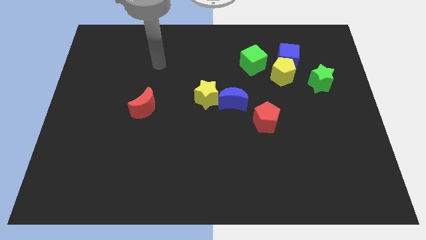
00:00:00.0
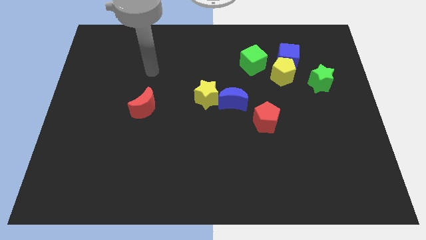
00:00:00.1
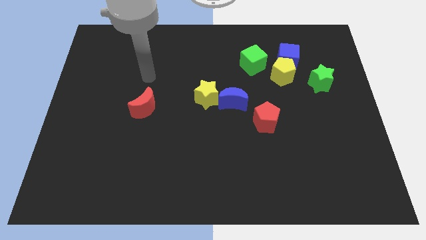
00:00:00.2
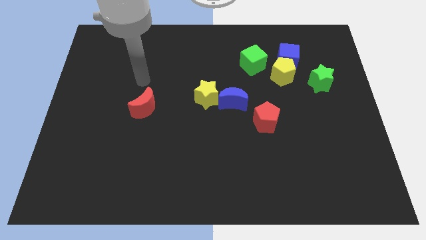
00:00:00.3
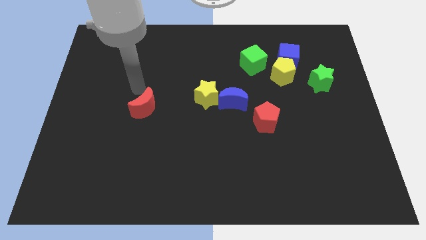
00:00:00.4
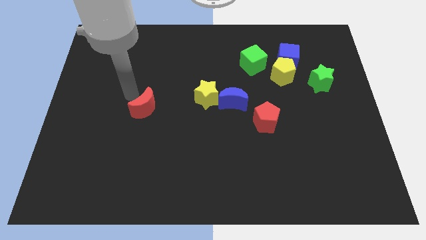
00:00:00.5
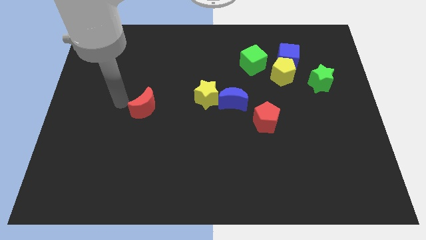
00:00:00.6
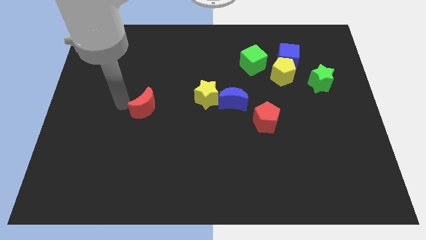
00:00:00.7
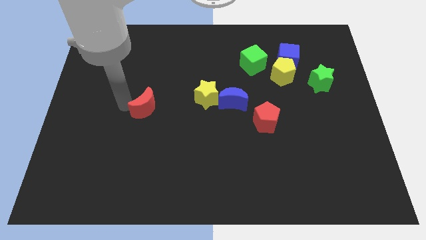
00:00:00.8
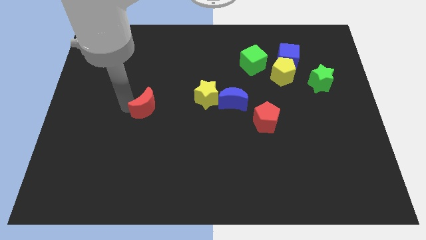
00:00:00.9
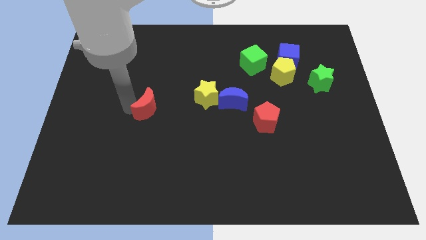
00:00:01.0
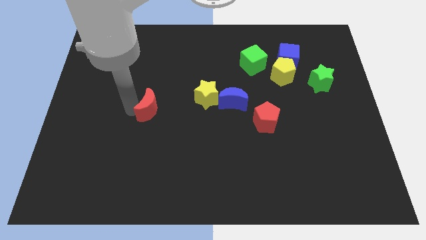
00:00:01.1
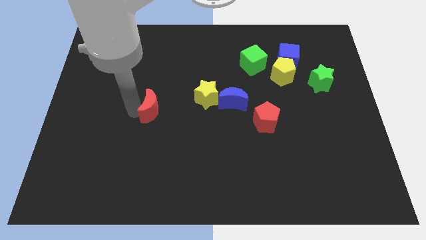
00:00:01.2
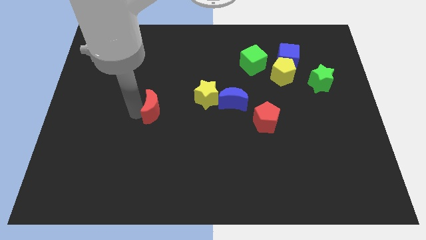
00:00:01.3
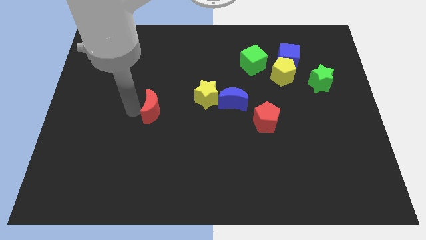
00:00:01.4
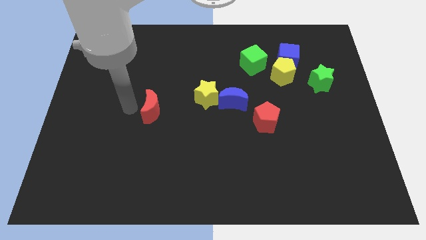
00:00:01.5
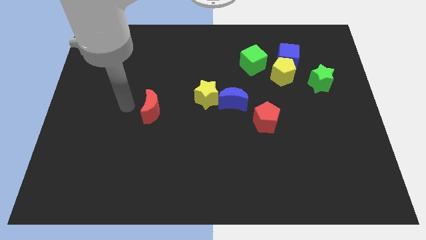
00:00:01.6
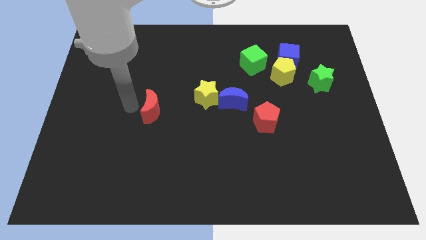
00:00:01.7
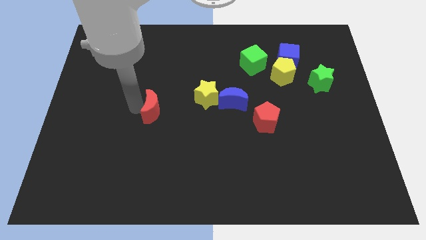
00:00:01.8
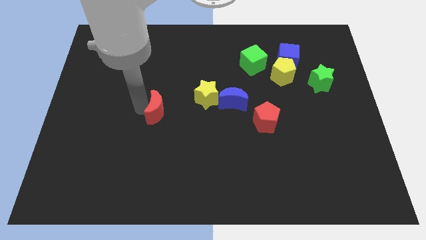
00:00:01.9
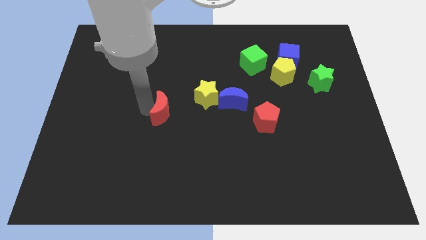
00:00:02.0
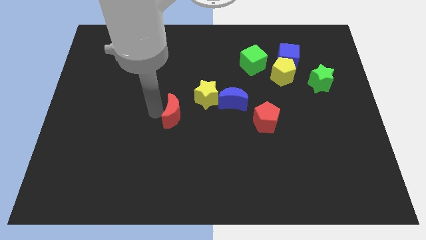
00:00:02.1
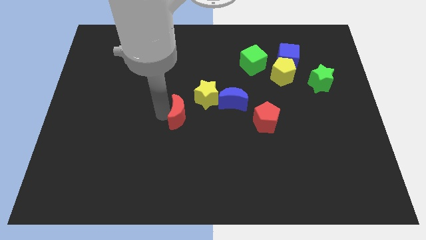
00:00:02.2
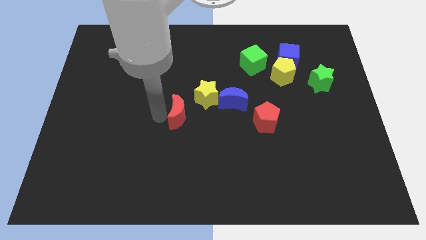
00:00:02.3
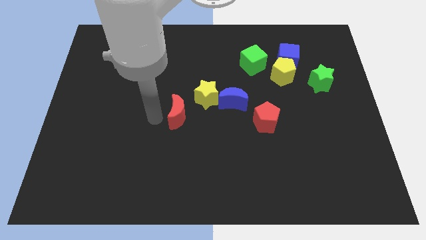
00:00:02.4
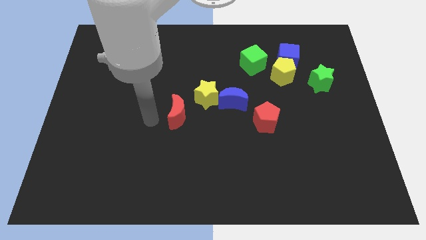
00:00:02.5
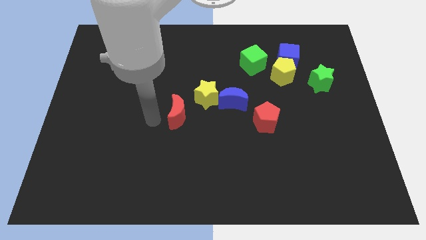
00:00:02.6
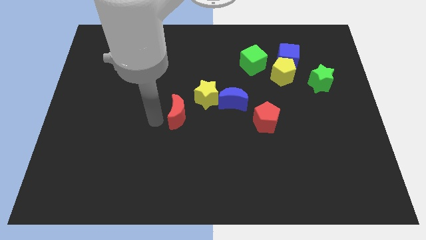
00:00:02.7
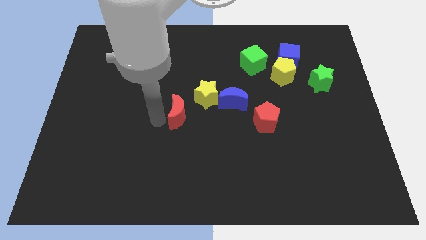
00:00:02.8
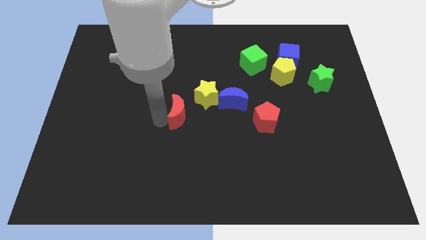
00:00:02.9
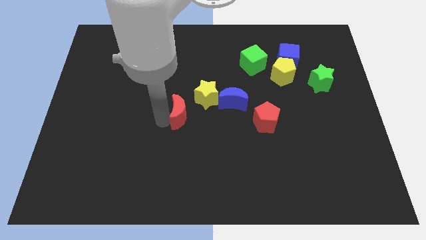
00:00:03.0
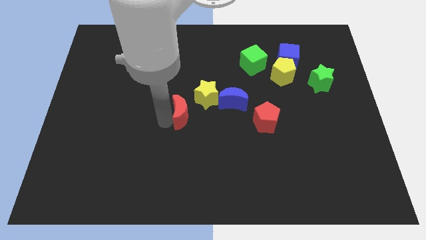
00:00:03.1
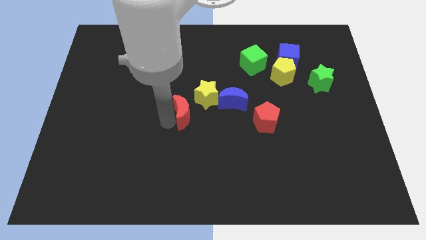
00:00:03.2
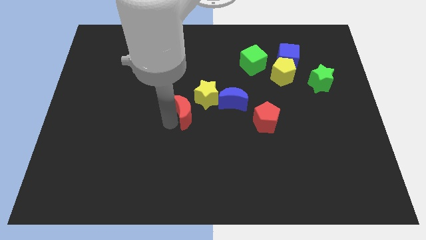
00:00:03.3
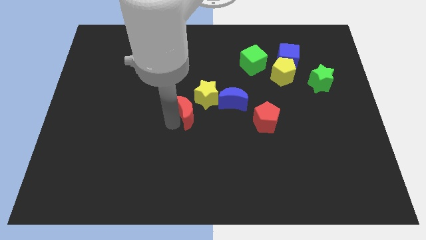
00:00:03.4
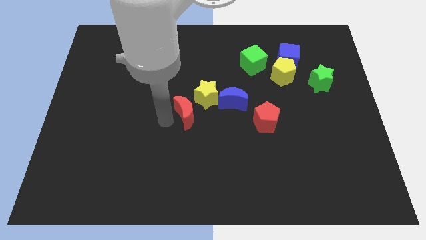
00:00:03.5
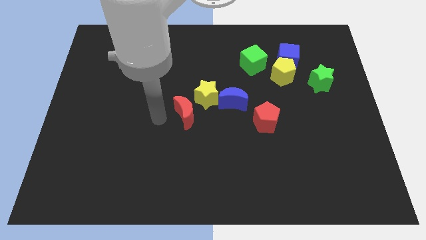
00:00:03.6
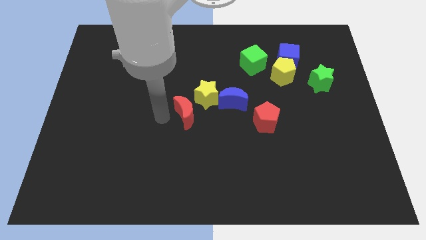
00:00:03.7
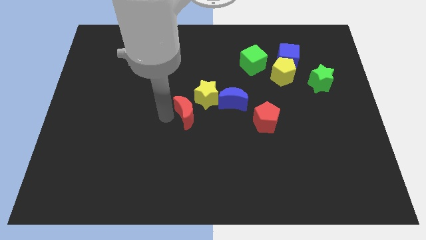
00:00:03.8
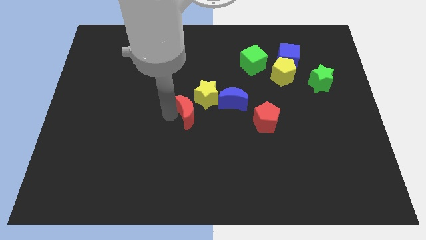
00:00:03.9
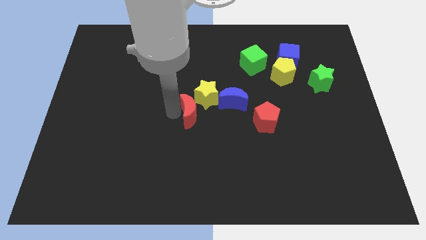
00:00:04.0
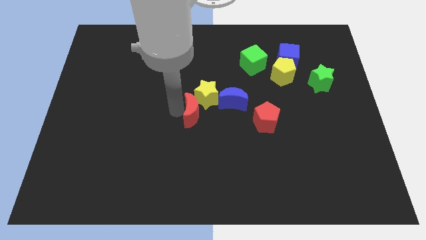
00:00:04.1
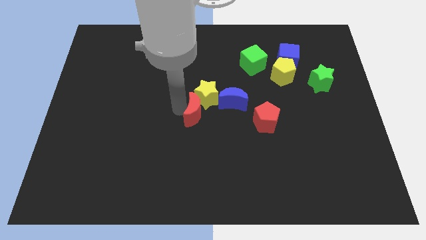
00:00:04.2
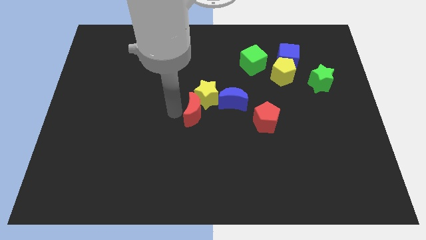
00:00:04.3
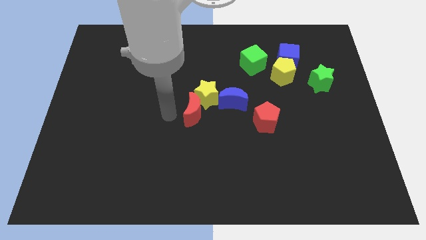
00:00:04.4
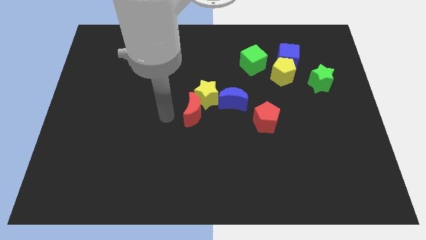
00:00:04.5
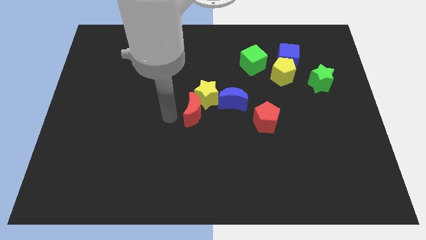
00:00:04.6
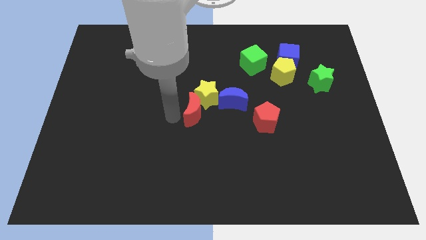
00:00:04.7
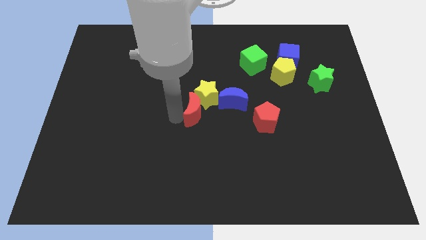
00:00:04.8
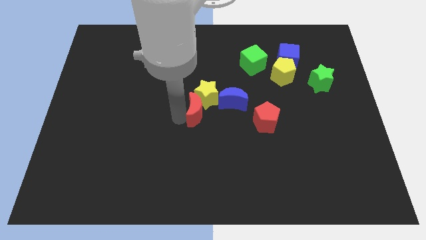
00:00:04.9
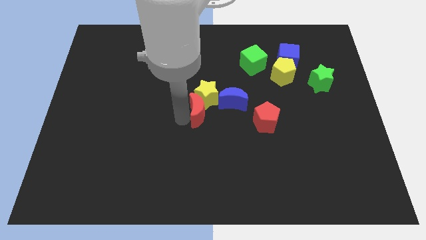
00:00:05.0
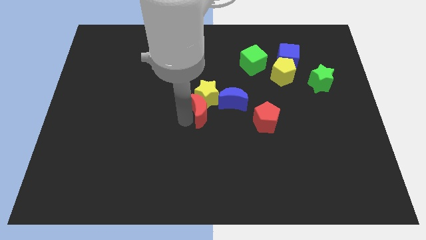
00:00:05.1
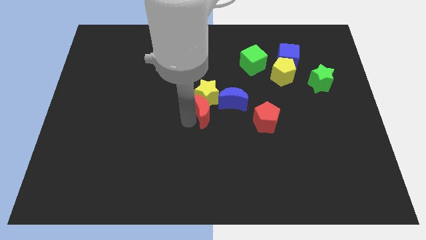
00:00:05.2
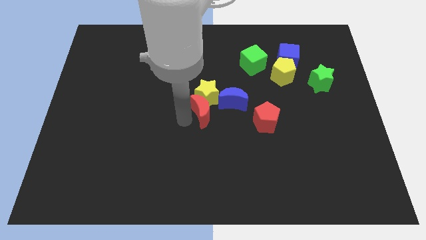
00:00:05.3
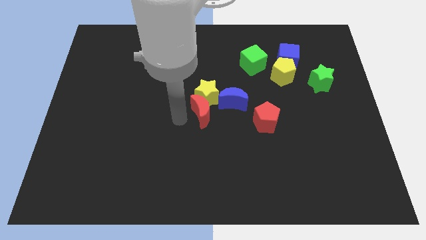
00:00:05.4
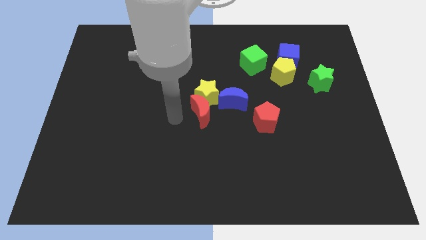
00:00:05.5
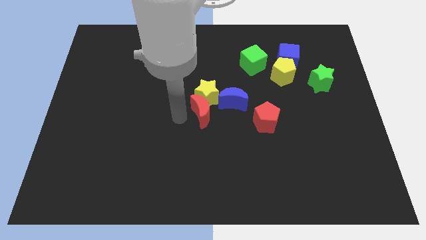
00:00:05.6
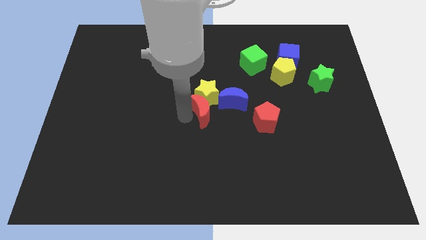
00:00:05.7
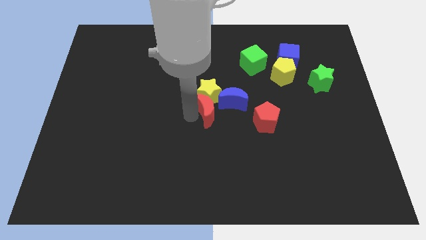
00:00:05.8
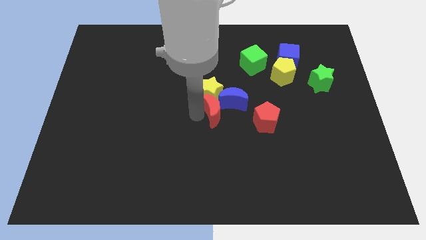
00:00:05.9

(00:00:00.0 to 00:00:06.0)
slide the red moon next to the blue moon

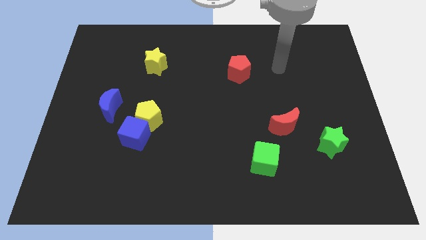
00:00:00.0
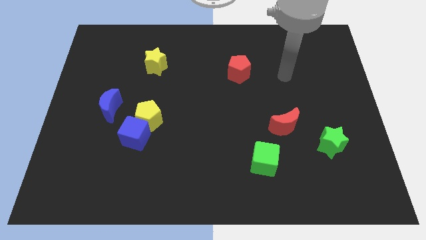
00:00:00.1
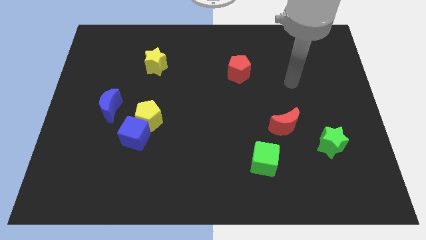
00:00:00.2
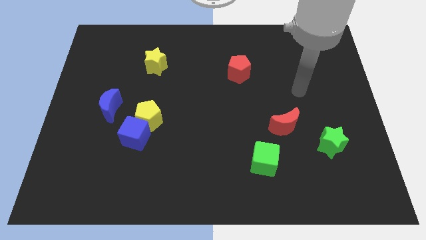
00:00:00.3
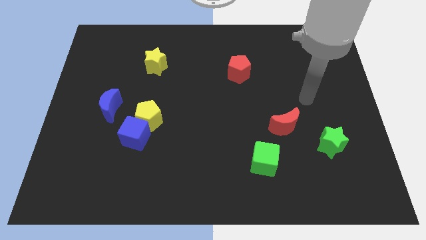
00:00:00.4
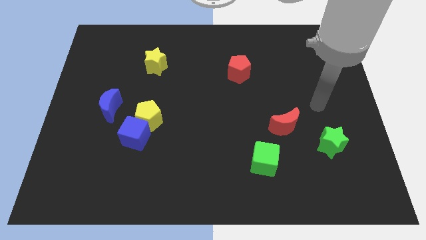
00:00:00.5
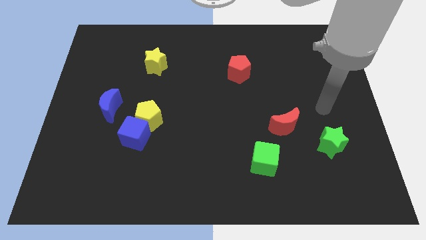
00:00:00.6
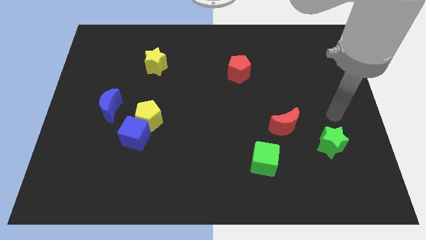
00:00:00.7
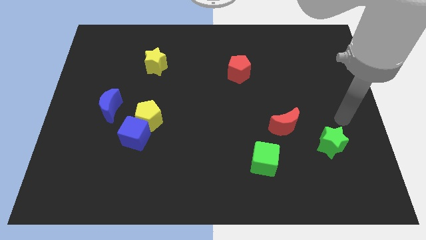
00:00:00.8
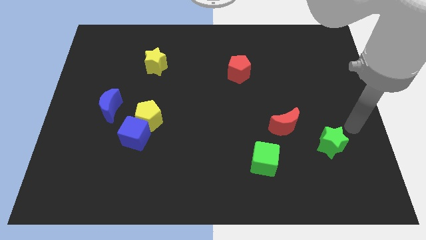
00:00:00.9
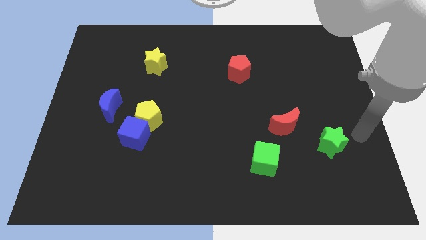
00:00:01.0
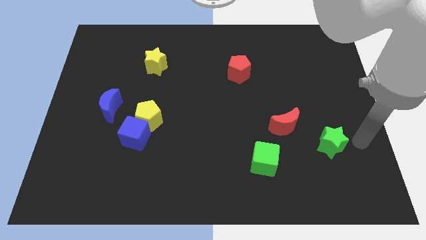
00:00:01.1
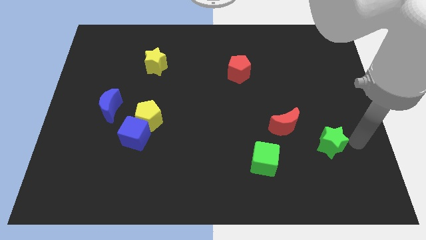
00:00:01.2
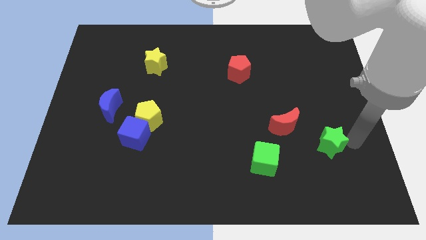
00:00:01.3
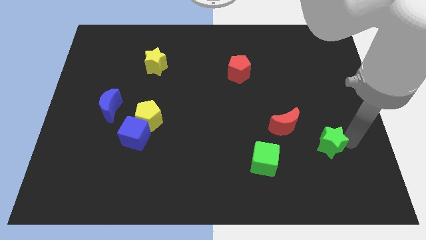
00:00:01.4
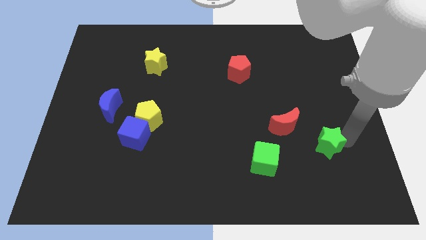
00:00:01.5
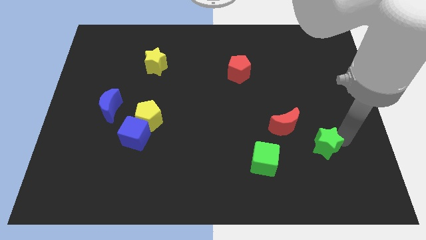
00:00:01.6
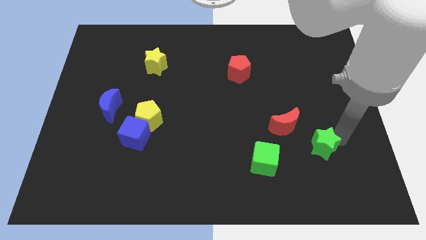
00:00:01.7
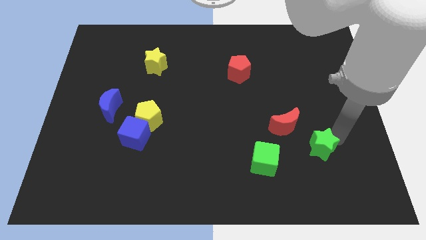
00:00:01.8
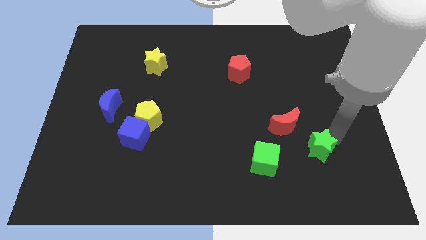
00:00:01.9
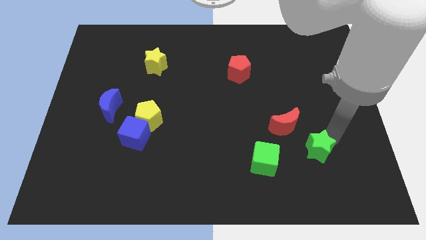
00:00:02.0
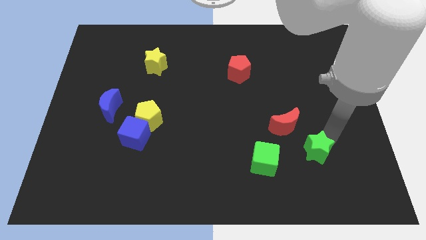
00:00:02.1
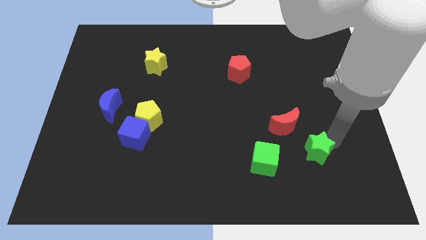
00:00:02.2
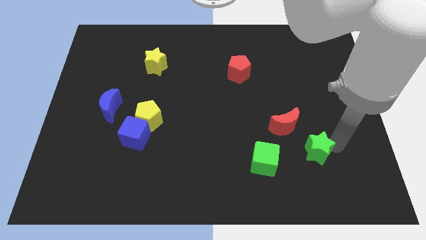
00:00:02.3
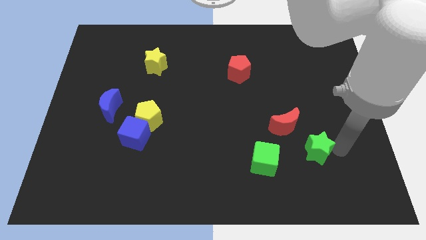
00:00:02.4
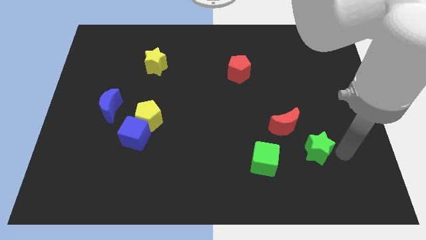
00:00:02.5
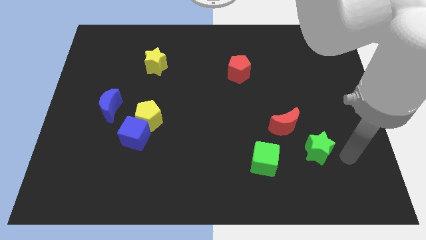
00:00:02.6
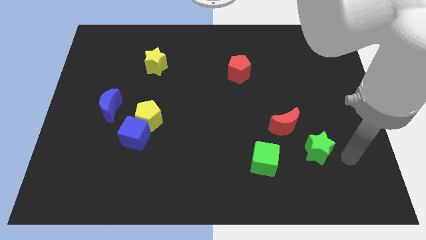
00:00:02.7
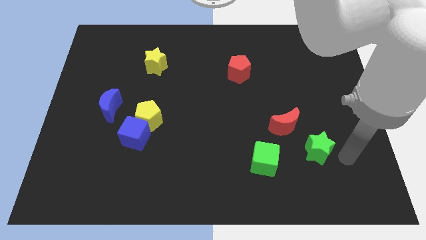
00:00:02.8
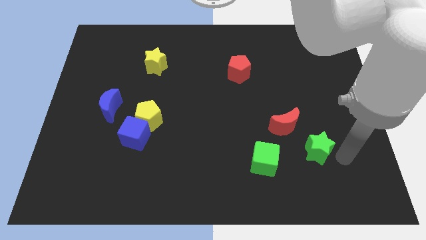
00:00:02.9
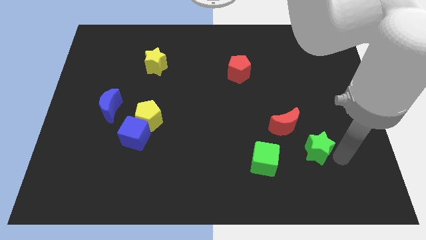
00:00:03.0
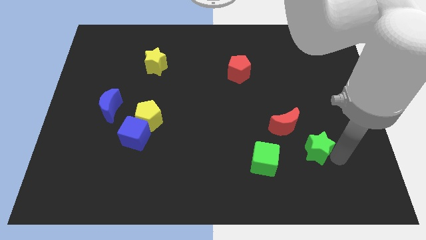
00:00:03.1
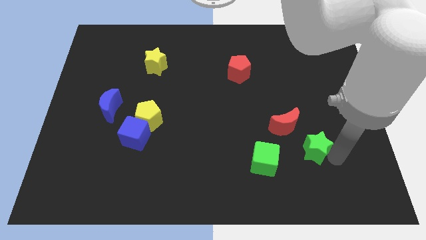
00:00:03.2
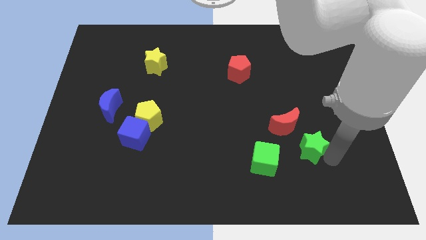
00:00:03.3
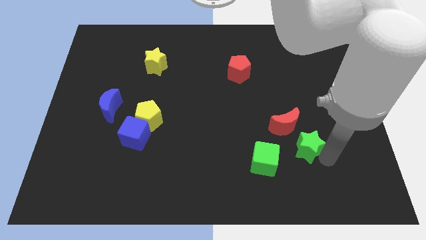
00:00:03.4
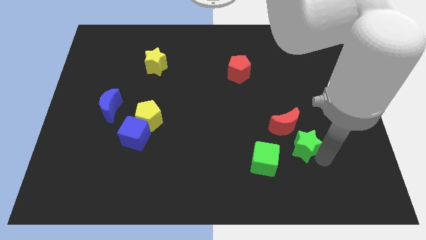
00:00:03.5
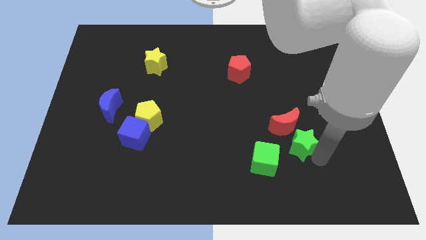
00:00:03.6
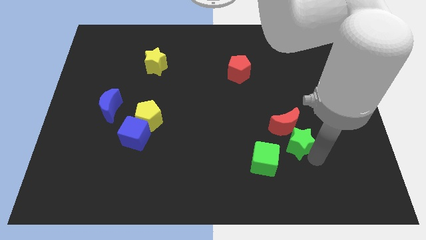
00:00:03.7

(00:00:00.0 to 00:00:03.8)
put the green star to the red moon
